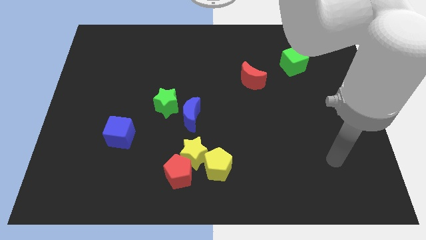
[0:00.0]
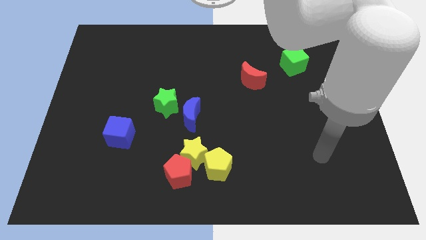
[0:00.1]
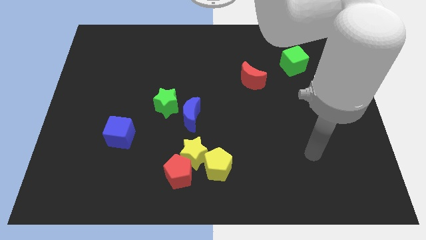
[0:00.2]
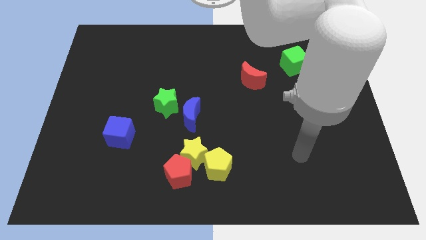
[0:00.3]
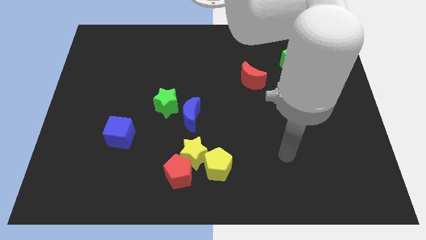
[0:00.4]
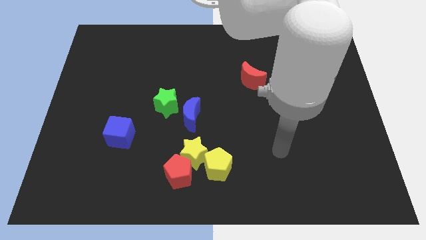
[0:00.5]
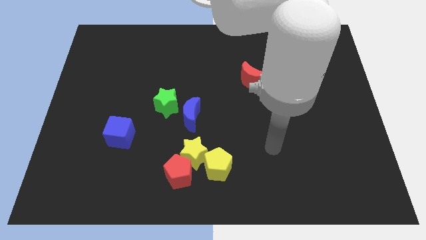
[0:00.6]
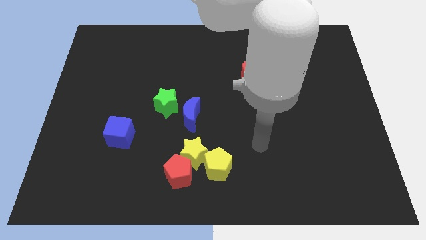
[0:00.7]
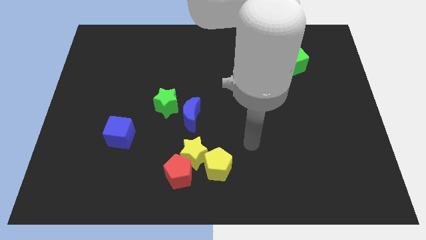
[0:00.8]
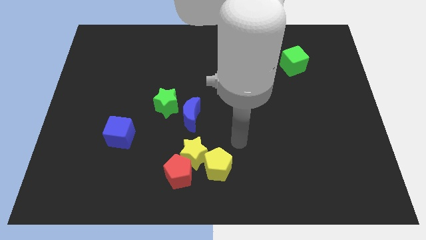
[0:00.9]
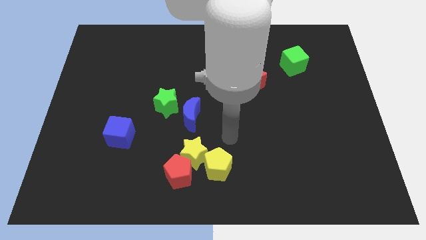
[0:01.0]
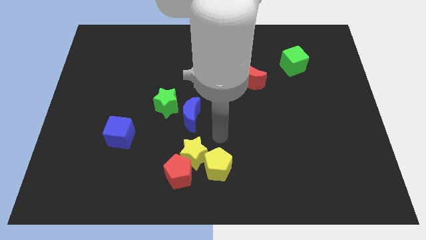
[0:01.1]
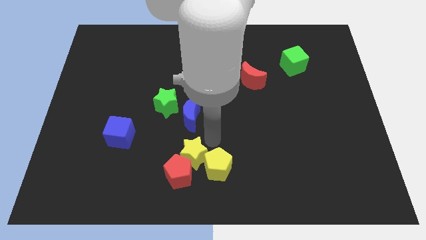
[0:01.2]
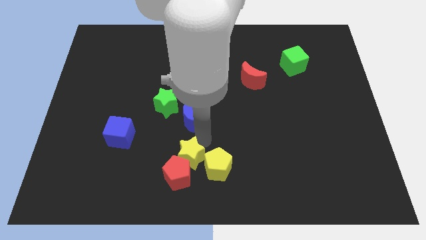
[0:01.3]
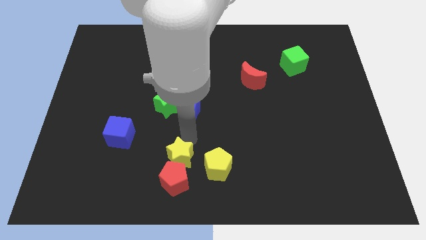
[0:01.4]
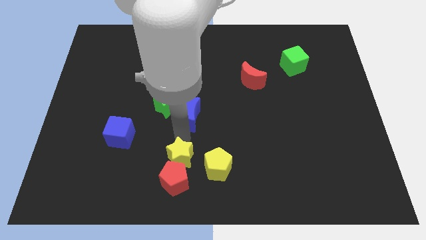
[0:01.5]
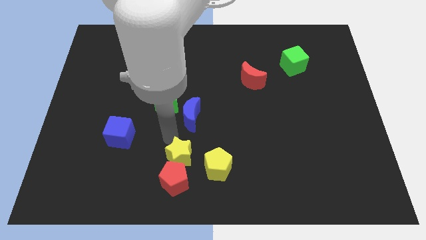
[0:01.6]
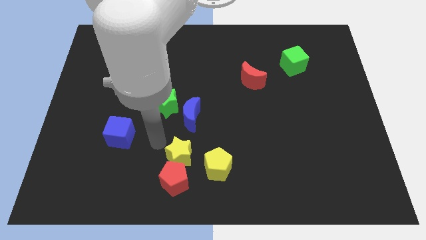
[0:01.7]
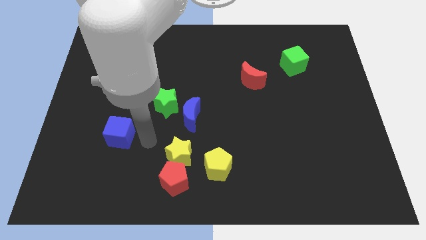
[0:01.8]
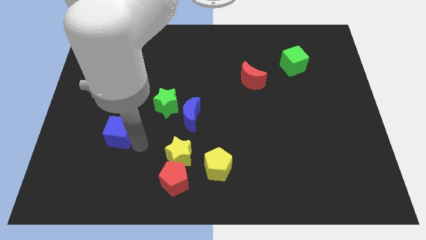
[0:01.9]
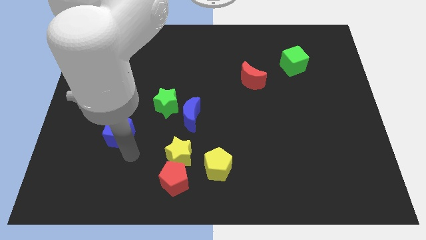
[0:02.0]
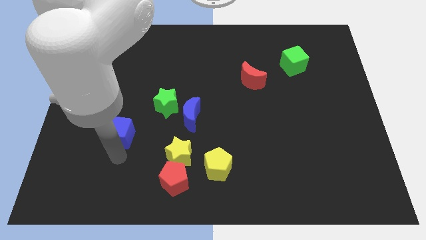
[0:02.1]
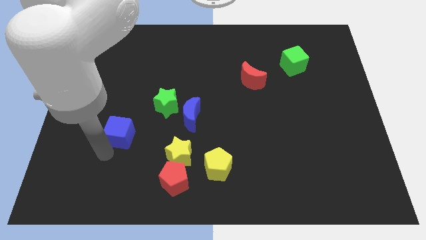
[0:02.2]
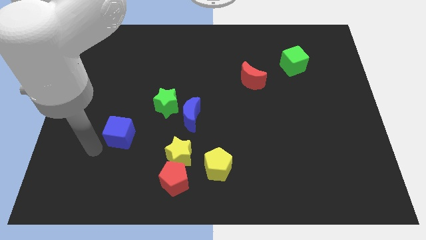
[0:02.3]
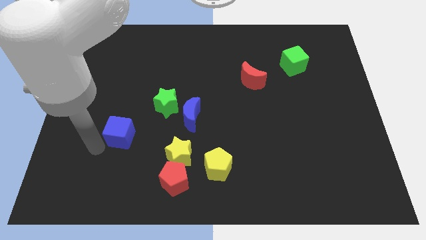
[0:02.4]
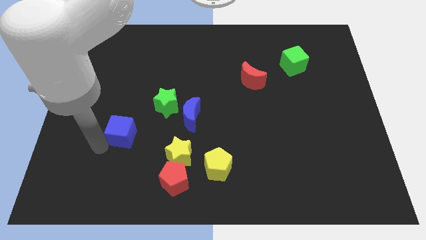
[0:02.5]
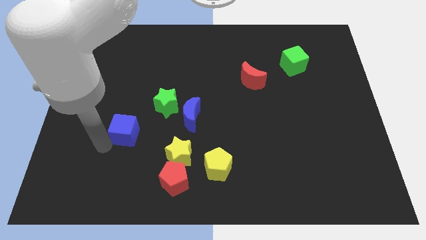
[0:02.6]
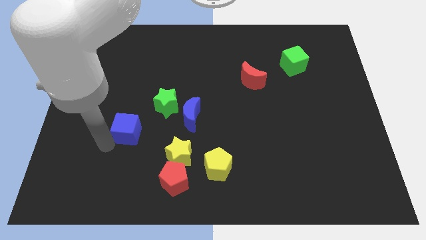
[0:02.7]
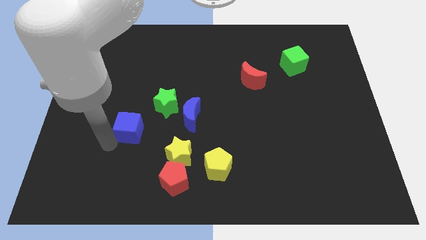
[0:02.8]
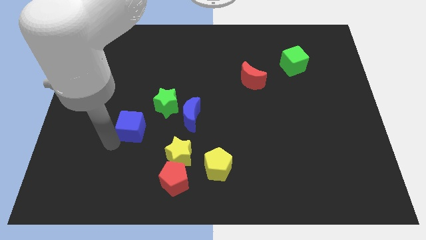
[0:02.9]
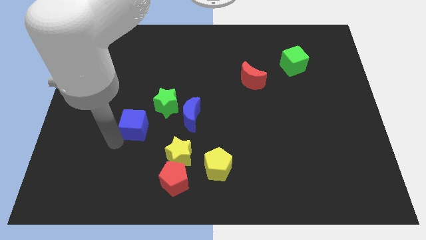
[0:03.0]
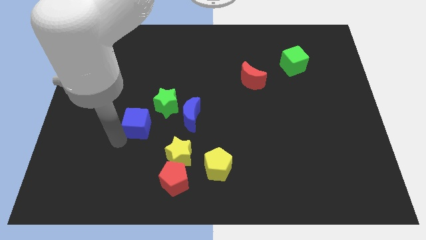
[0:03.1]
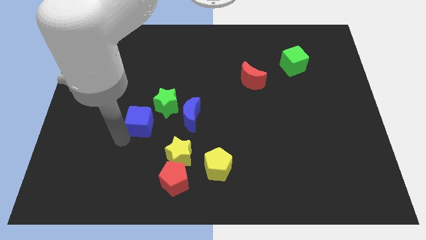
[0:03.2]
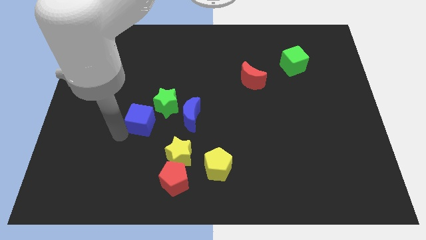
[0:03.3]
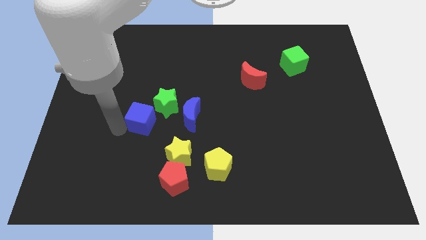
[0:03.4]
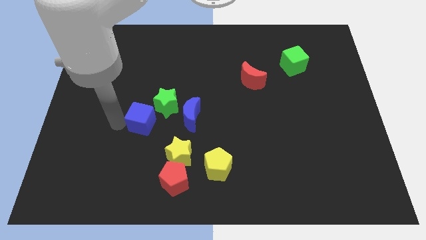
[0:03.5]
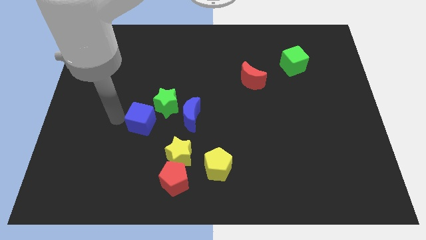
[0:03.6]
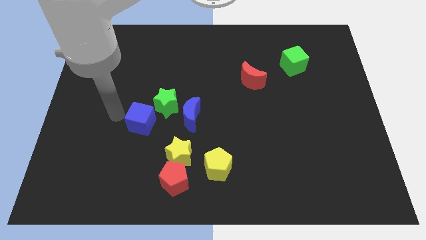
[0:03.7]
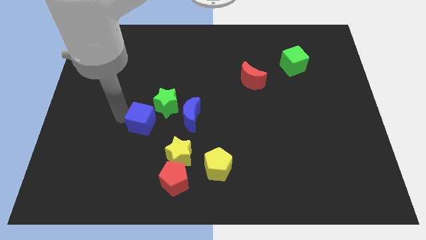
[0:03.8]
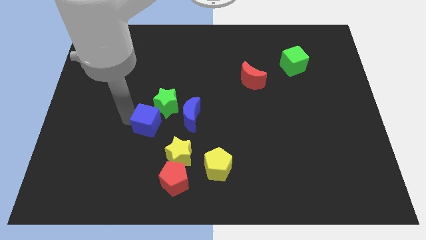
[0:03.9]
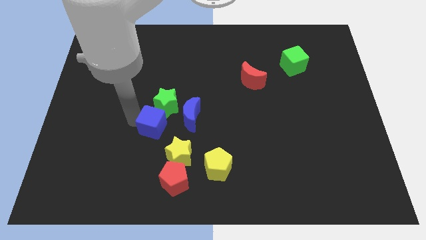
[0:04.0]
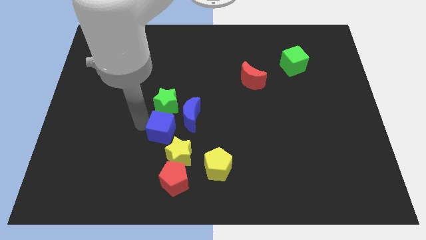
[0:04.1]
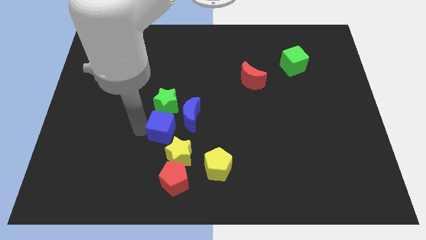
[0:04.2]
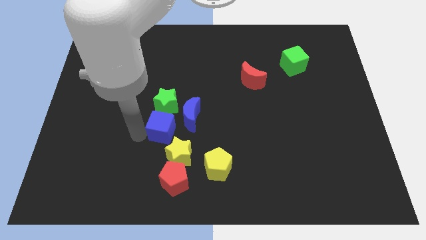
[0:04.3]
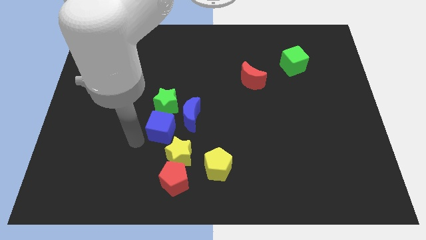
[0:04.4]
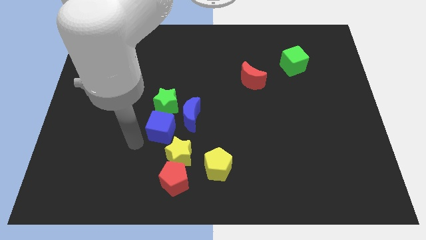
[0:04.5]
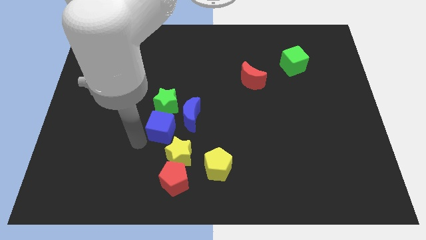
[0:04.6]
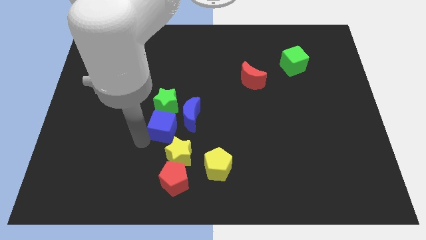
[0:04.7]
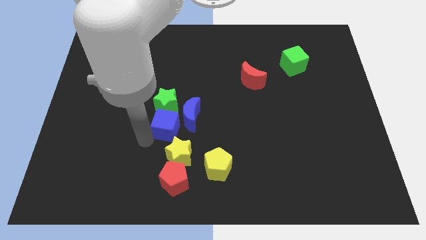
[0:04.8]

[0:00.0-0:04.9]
move the blue cube next to the blue moon

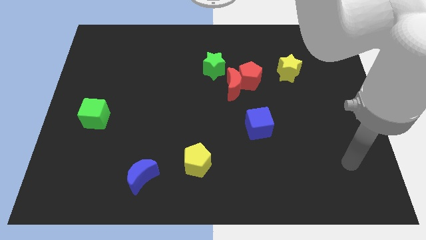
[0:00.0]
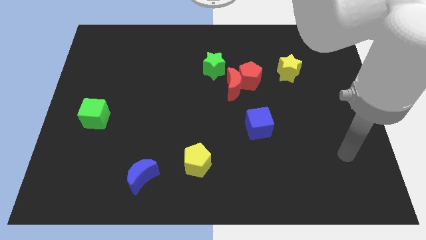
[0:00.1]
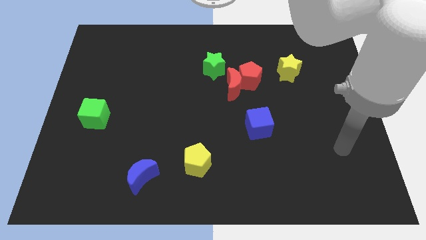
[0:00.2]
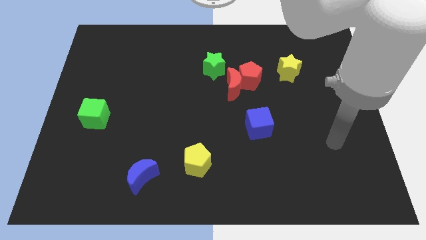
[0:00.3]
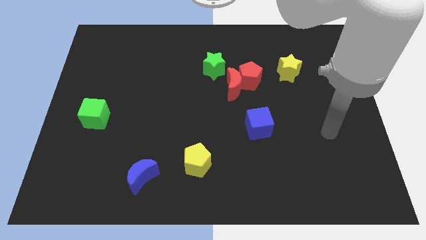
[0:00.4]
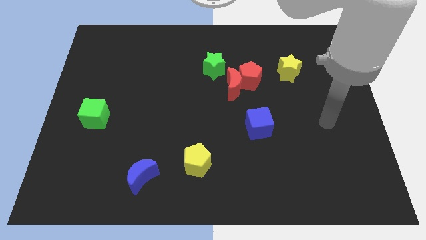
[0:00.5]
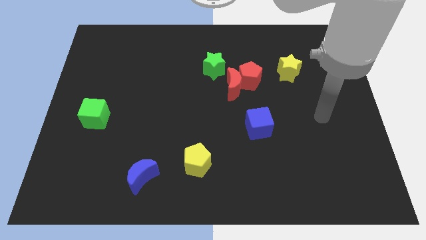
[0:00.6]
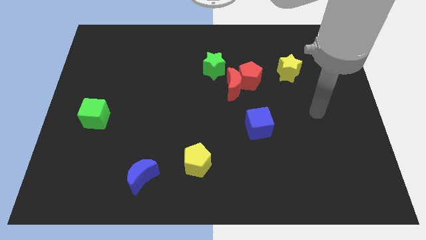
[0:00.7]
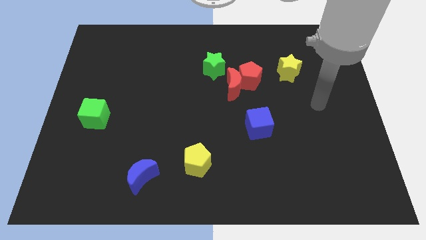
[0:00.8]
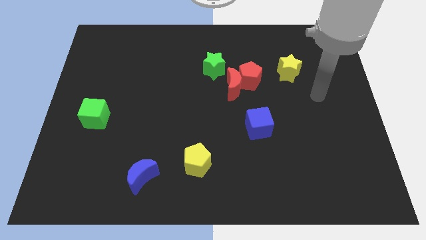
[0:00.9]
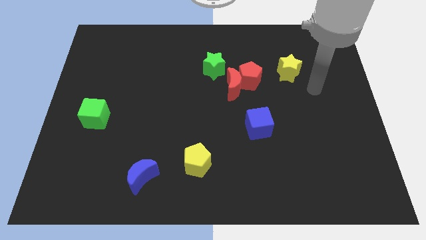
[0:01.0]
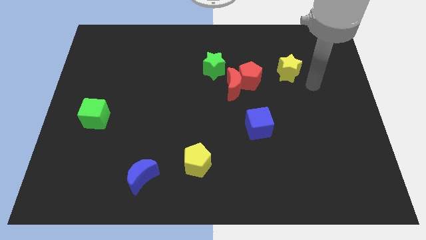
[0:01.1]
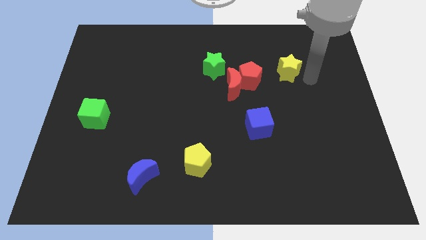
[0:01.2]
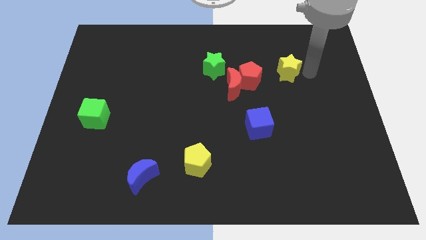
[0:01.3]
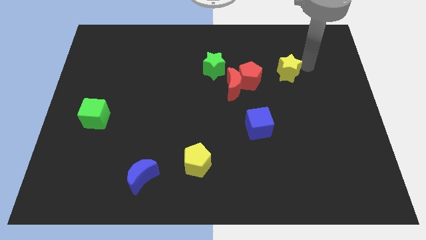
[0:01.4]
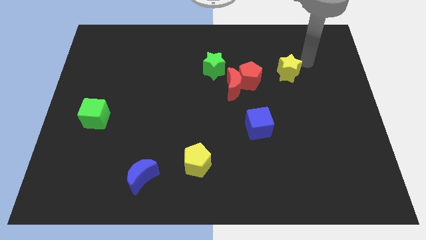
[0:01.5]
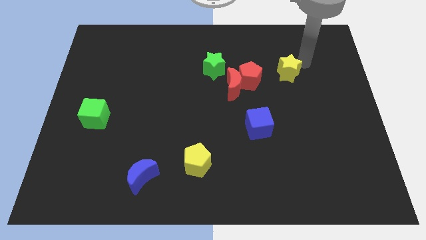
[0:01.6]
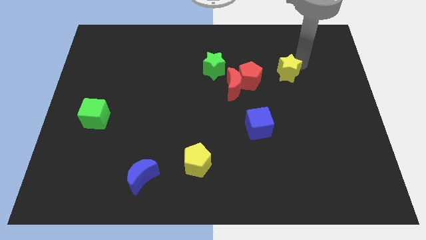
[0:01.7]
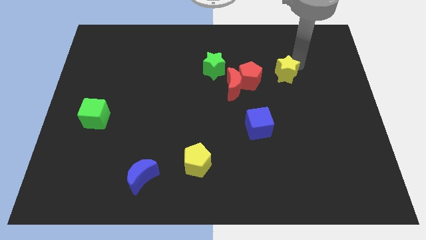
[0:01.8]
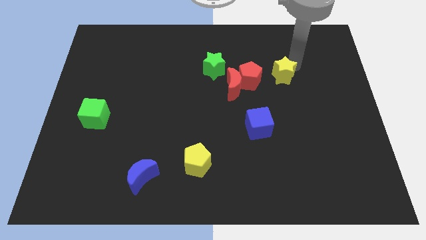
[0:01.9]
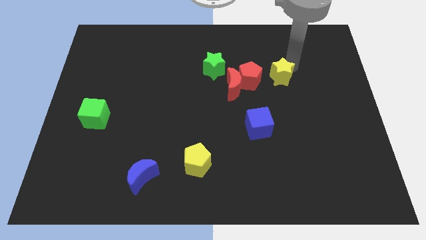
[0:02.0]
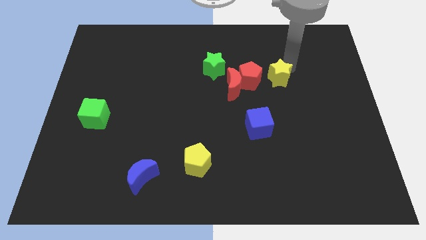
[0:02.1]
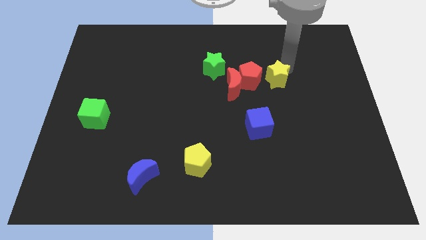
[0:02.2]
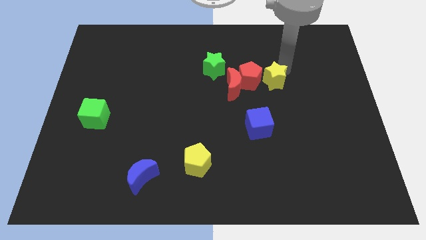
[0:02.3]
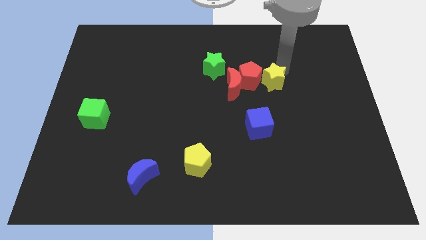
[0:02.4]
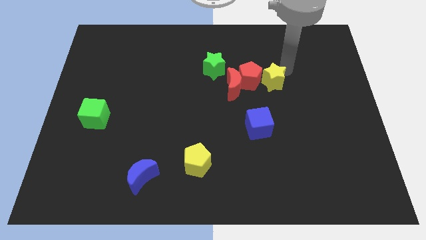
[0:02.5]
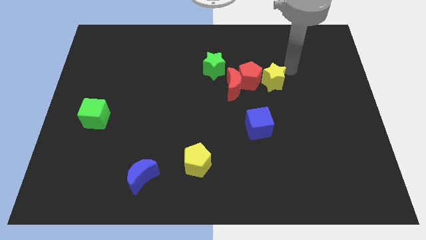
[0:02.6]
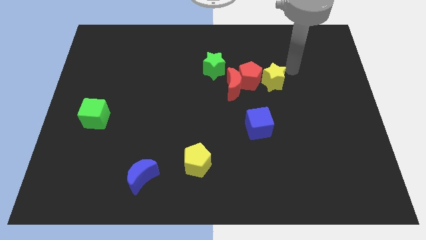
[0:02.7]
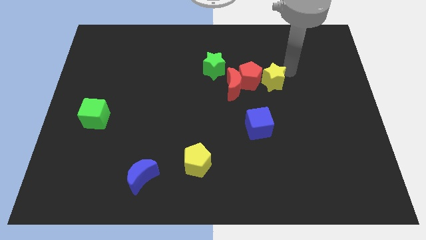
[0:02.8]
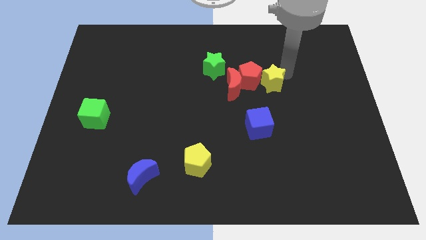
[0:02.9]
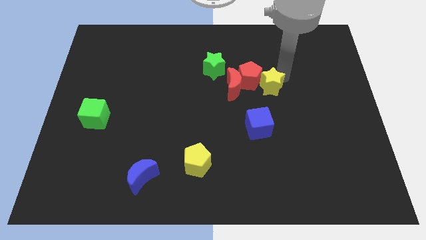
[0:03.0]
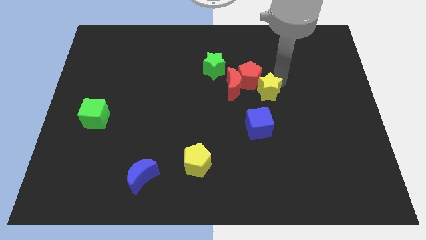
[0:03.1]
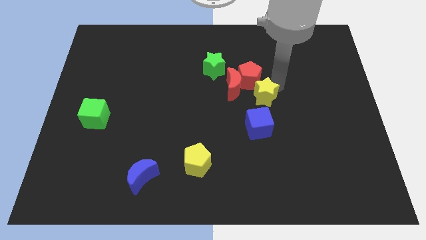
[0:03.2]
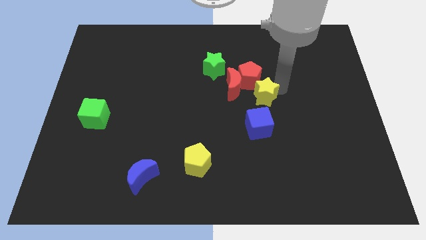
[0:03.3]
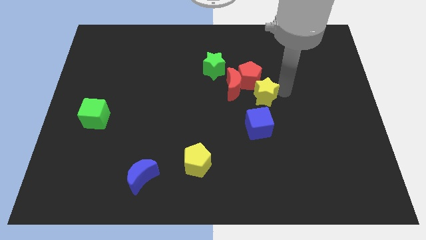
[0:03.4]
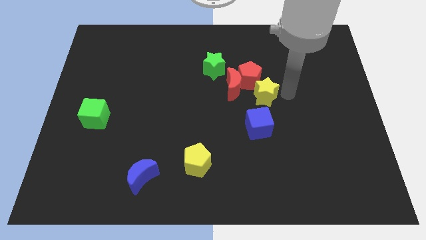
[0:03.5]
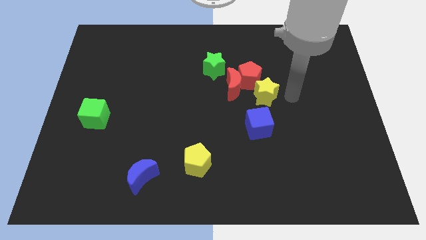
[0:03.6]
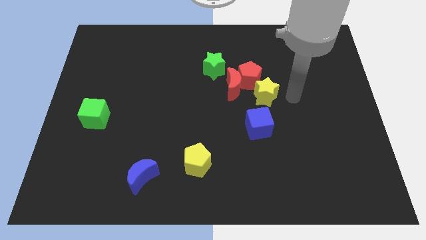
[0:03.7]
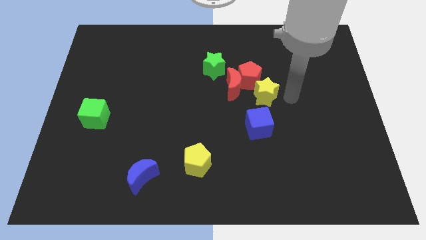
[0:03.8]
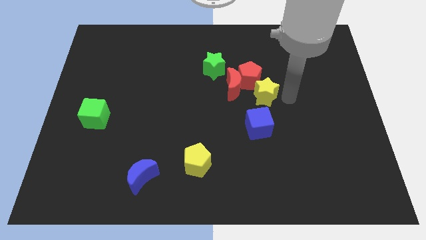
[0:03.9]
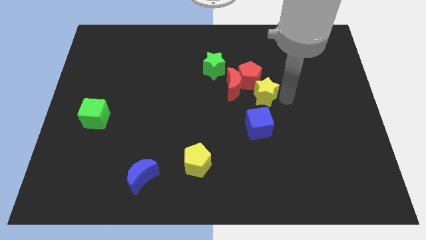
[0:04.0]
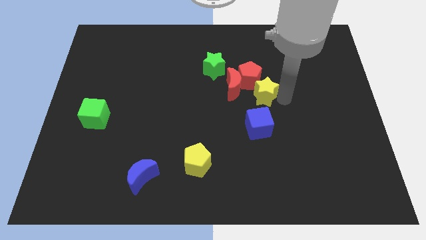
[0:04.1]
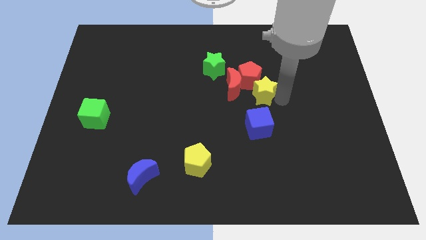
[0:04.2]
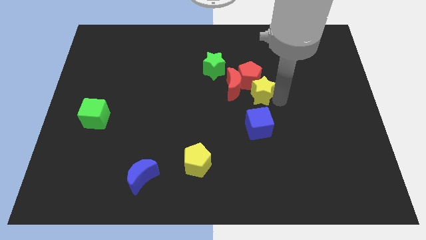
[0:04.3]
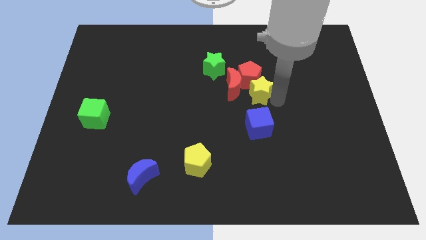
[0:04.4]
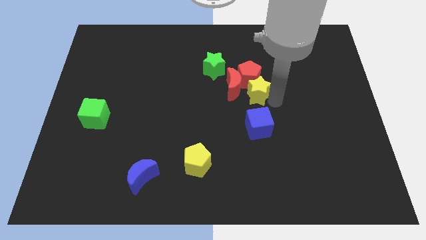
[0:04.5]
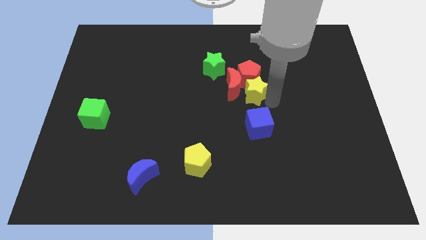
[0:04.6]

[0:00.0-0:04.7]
push the yellow star towards the red moon
